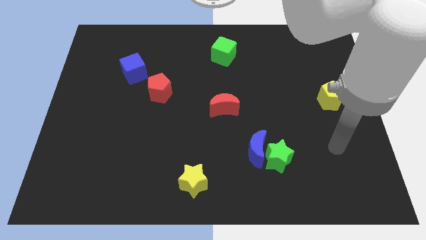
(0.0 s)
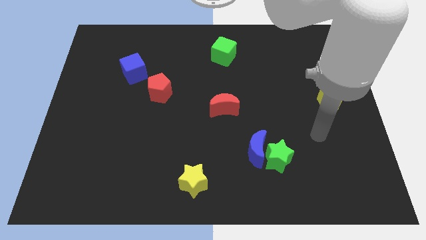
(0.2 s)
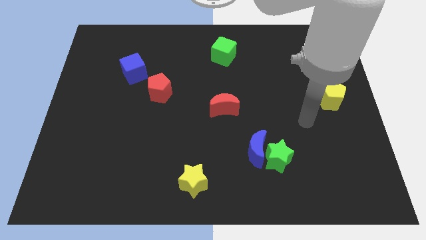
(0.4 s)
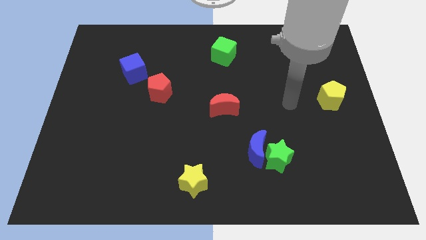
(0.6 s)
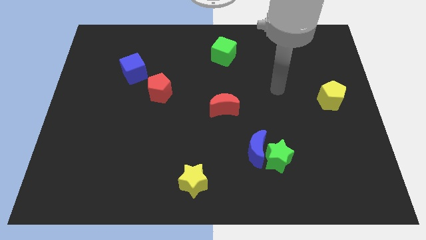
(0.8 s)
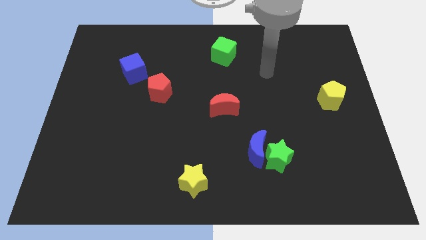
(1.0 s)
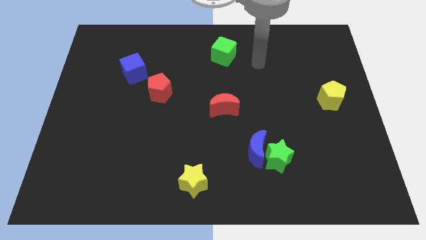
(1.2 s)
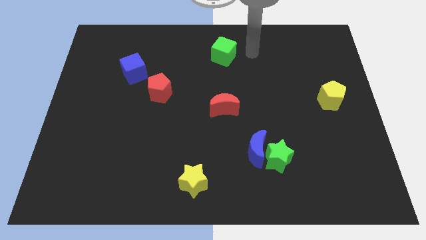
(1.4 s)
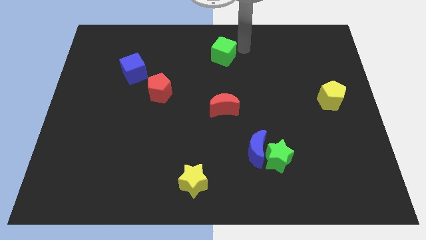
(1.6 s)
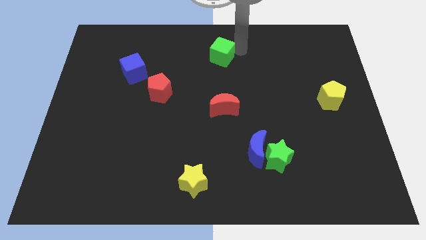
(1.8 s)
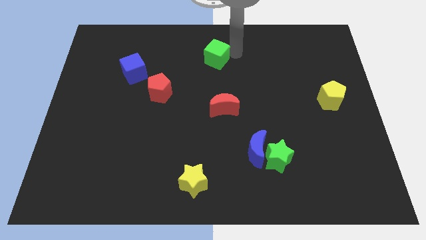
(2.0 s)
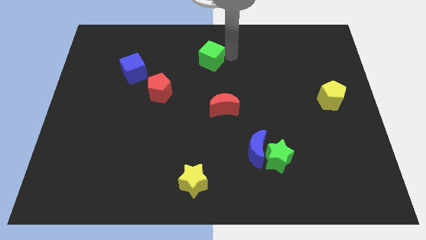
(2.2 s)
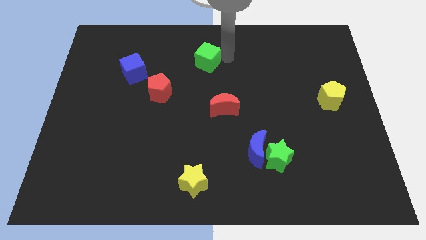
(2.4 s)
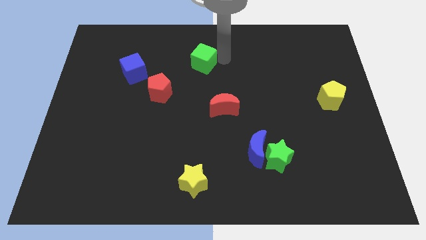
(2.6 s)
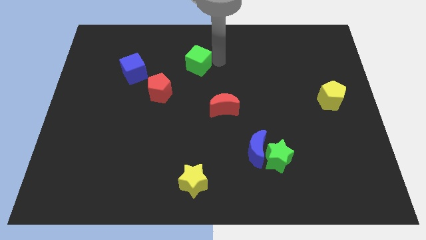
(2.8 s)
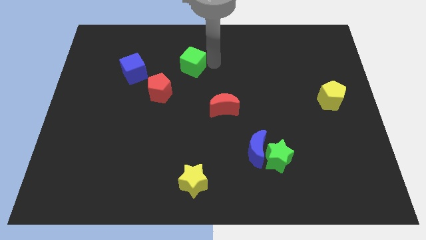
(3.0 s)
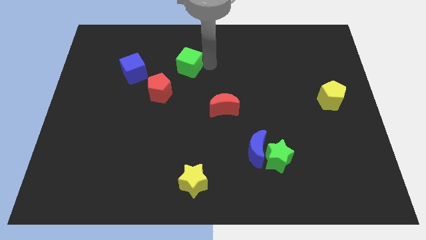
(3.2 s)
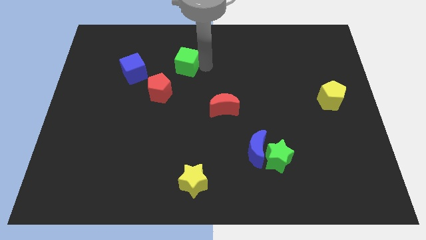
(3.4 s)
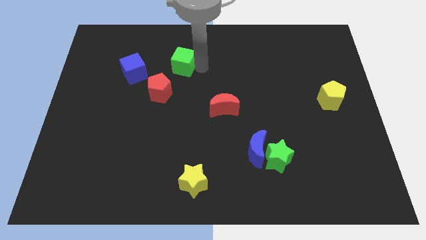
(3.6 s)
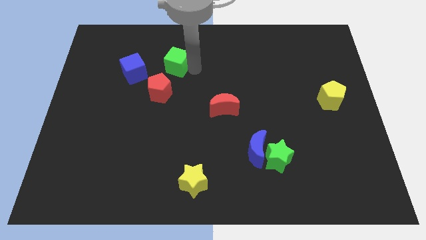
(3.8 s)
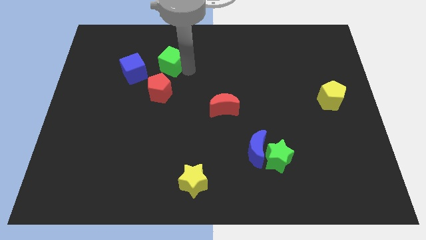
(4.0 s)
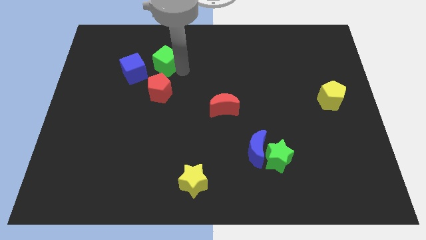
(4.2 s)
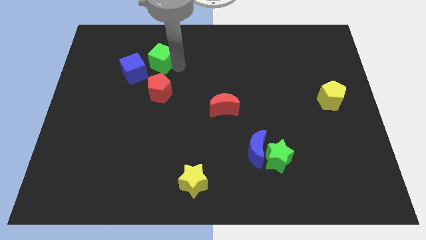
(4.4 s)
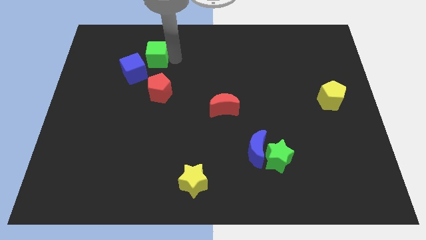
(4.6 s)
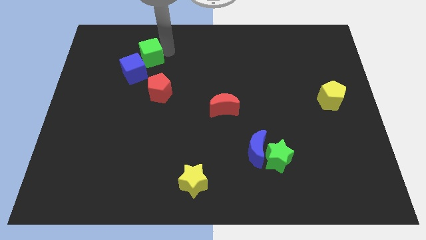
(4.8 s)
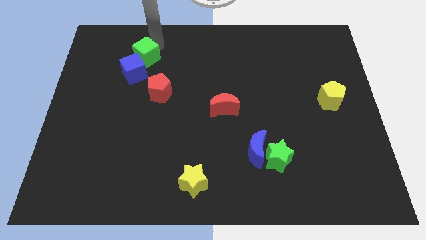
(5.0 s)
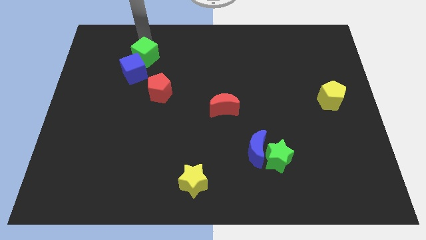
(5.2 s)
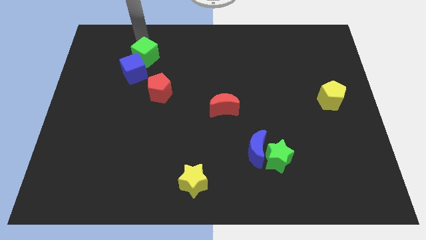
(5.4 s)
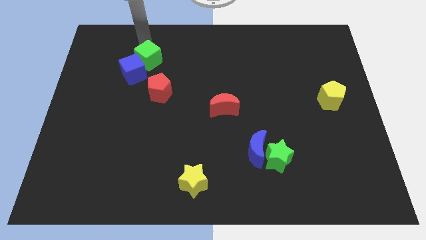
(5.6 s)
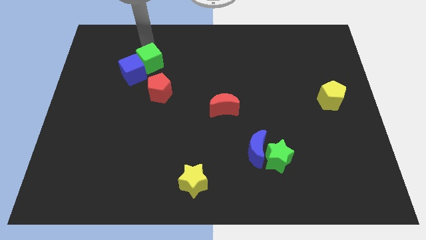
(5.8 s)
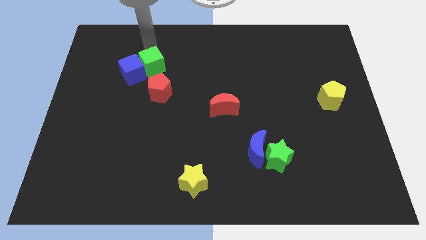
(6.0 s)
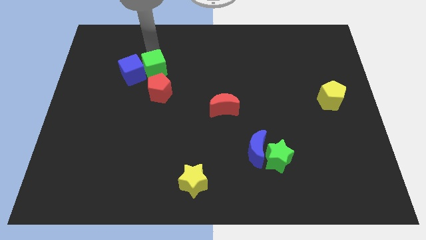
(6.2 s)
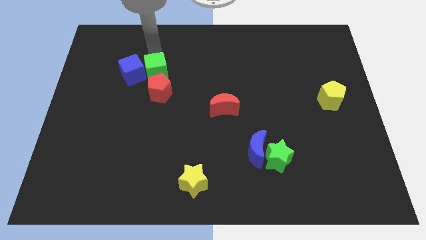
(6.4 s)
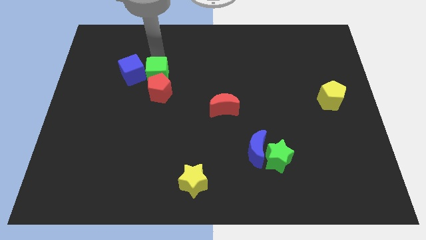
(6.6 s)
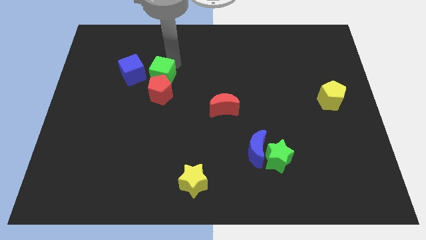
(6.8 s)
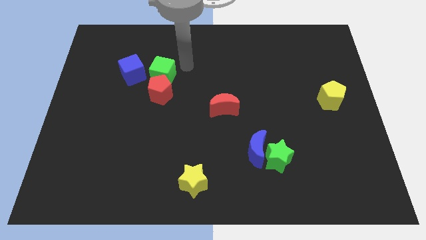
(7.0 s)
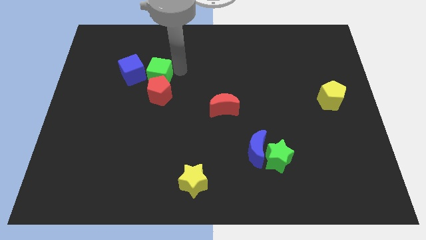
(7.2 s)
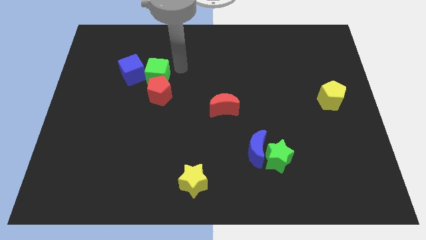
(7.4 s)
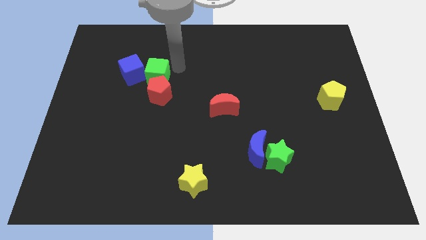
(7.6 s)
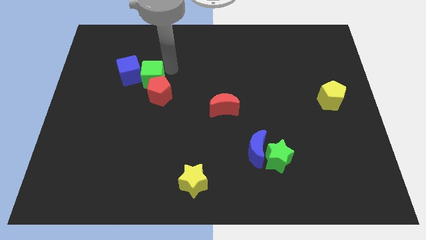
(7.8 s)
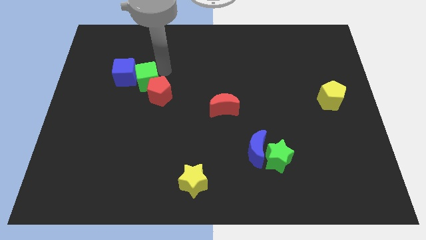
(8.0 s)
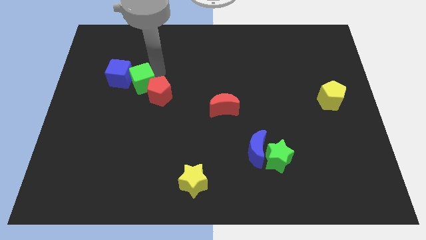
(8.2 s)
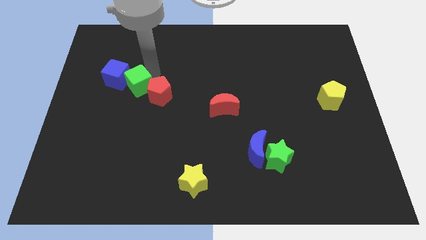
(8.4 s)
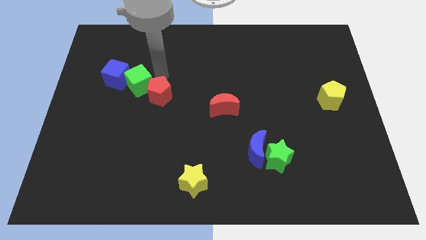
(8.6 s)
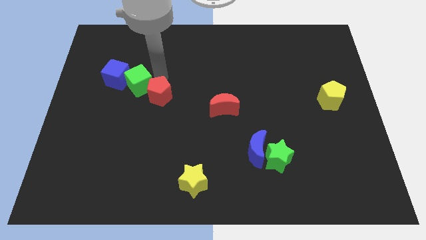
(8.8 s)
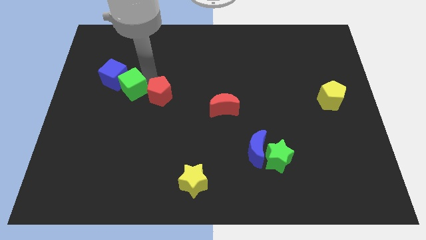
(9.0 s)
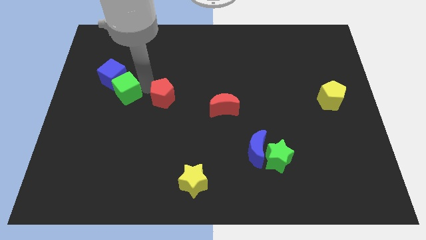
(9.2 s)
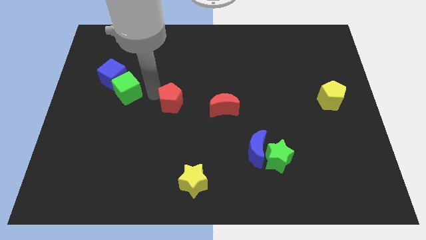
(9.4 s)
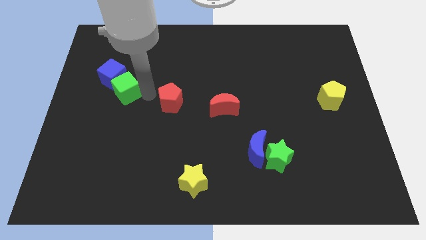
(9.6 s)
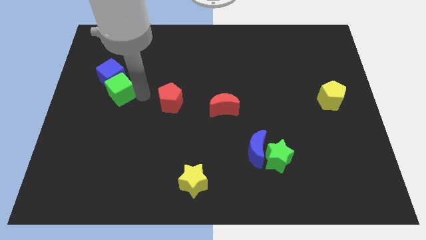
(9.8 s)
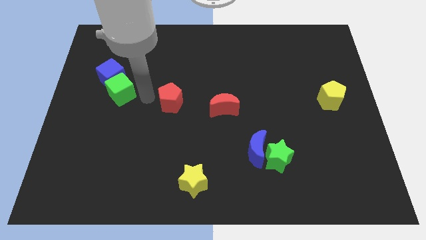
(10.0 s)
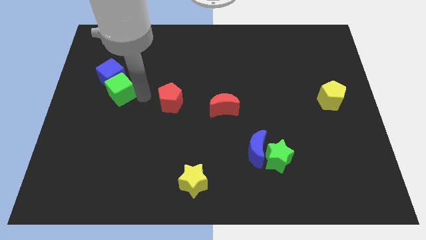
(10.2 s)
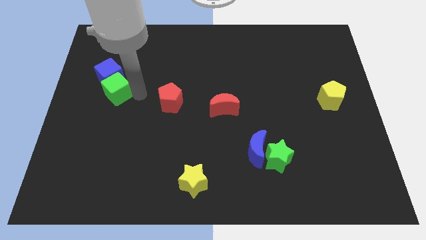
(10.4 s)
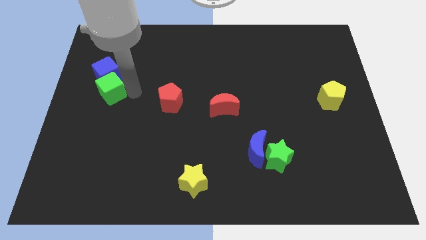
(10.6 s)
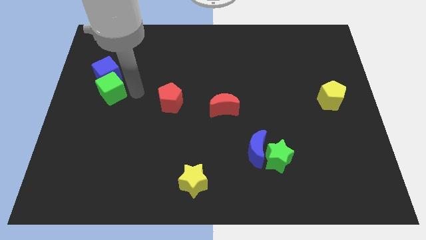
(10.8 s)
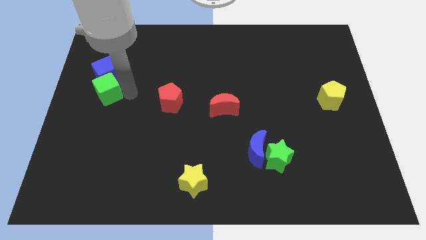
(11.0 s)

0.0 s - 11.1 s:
slide the green cube to the left side of the board

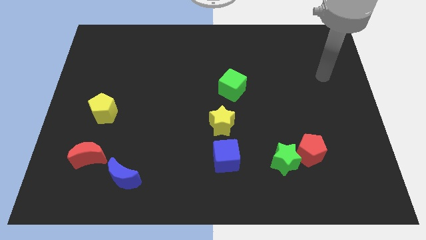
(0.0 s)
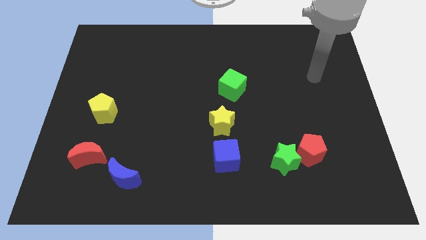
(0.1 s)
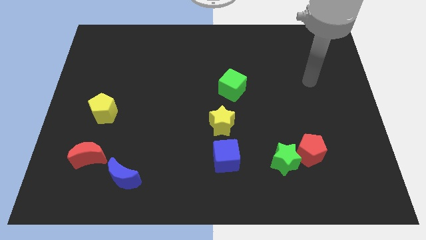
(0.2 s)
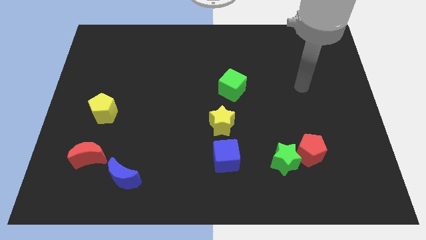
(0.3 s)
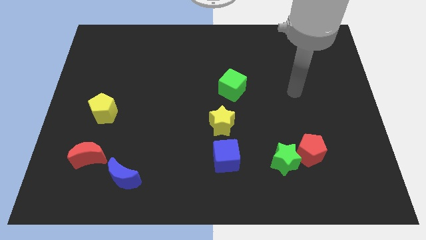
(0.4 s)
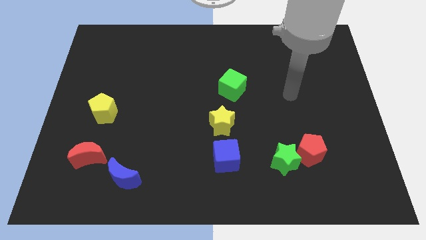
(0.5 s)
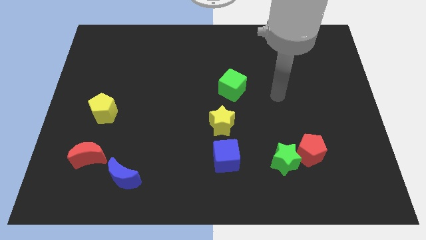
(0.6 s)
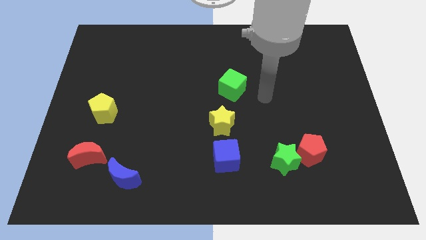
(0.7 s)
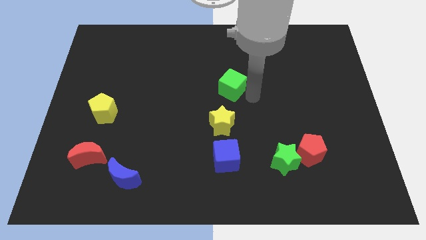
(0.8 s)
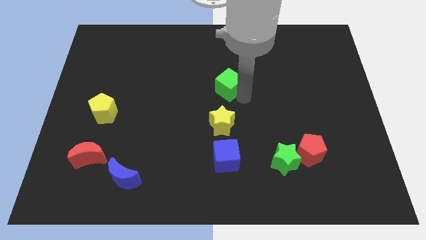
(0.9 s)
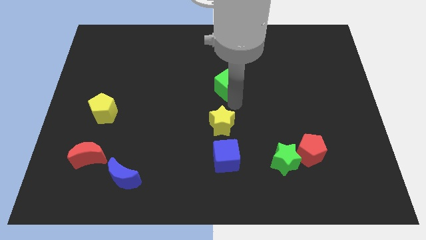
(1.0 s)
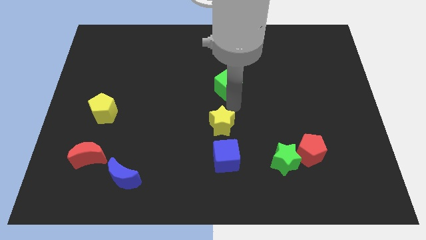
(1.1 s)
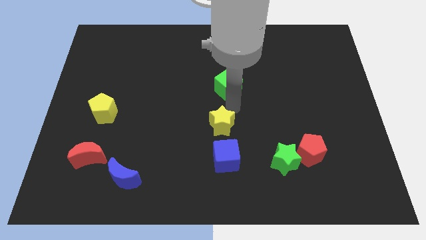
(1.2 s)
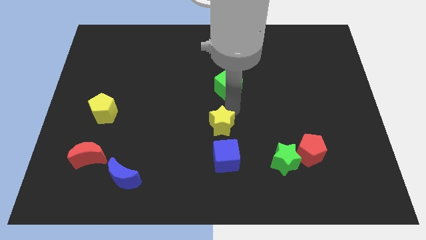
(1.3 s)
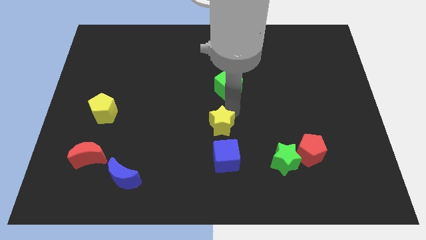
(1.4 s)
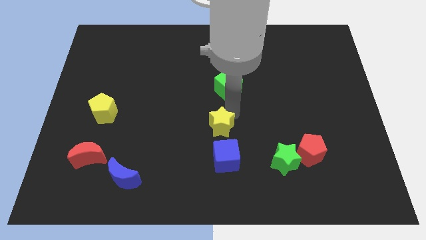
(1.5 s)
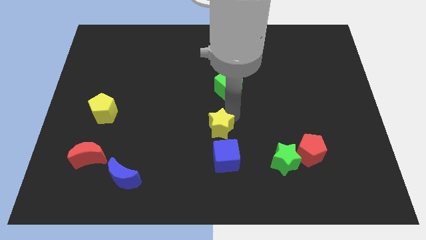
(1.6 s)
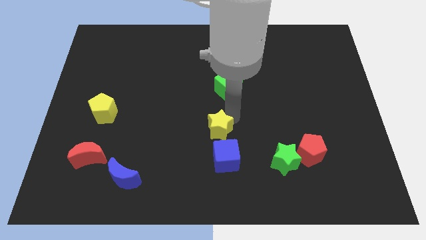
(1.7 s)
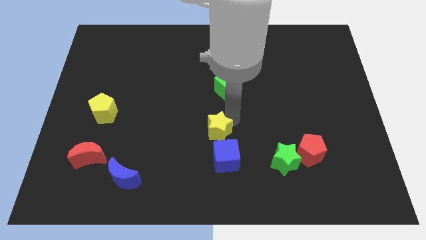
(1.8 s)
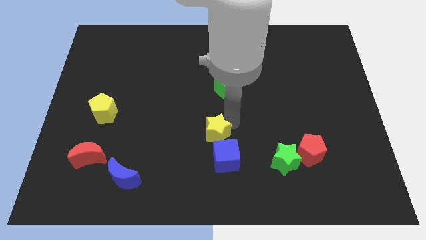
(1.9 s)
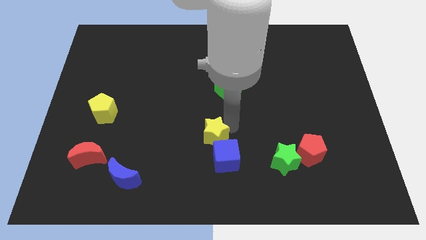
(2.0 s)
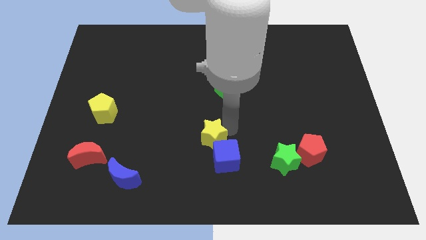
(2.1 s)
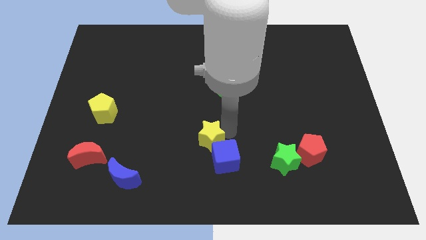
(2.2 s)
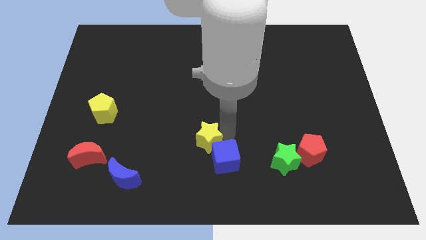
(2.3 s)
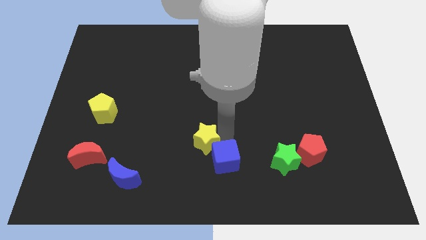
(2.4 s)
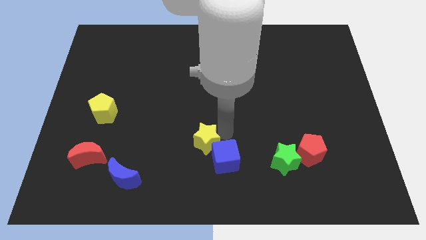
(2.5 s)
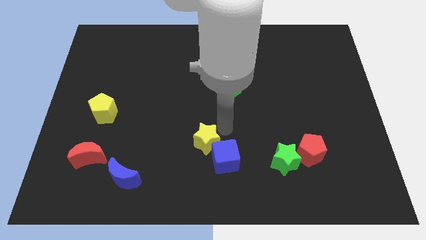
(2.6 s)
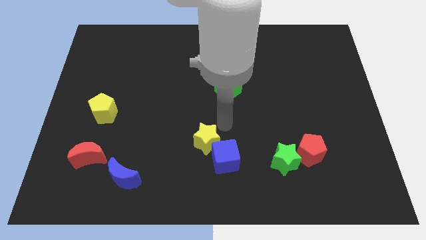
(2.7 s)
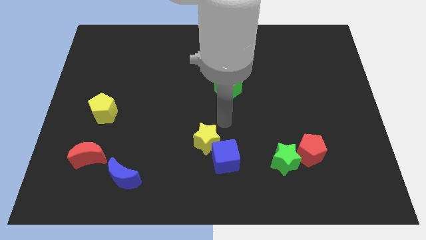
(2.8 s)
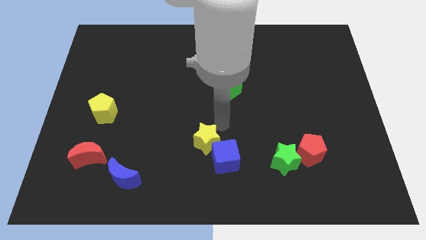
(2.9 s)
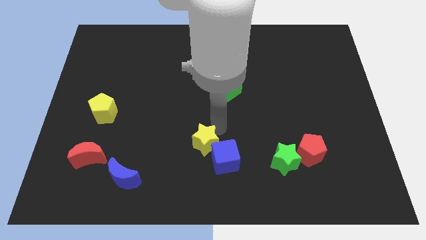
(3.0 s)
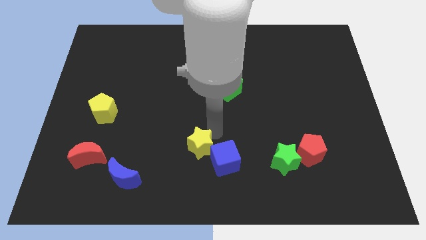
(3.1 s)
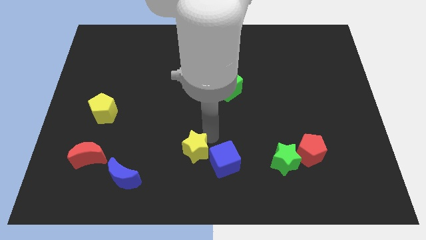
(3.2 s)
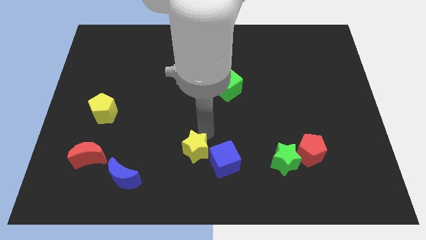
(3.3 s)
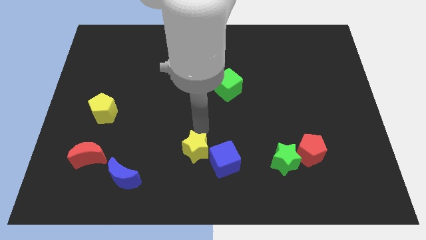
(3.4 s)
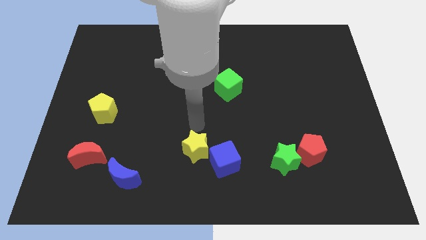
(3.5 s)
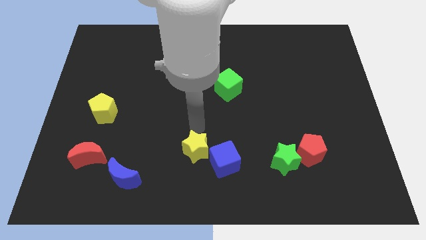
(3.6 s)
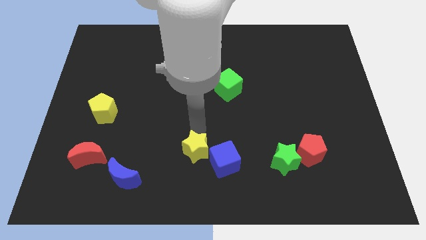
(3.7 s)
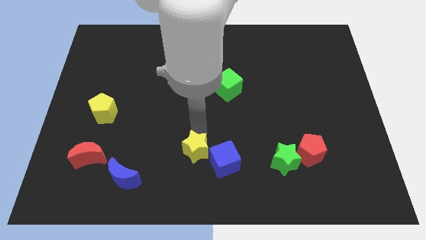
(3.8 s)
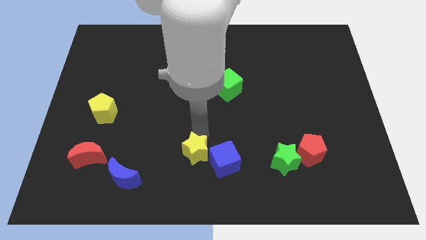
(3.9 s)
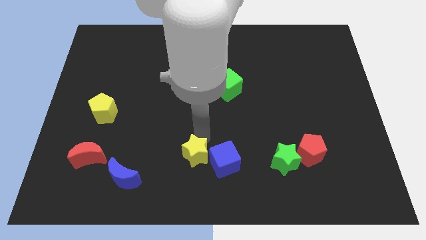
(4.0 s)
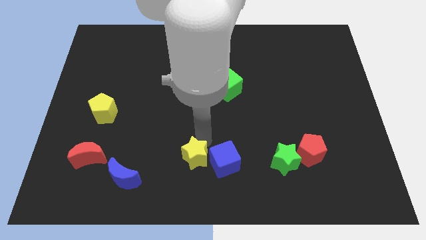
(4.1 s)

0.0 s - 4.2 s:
push the yellow star to the bottom
